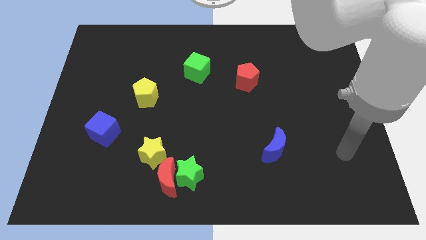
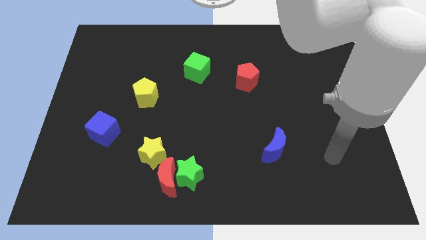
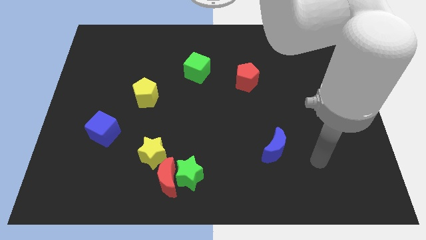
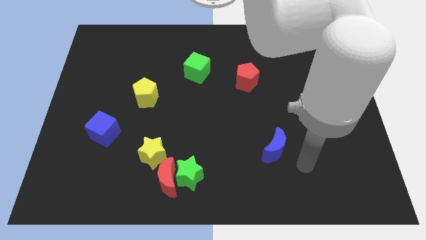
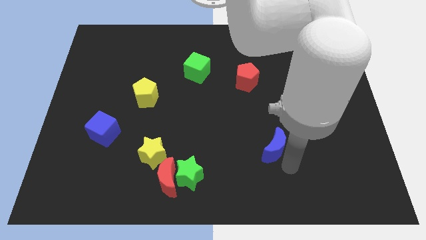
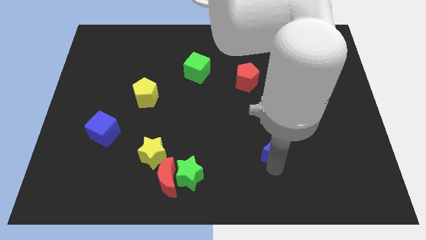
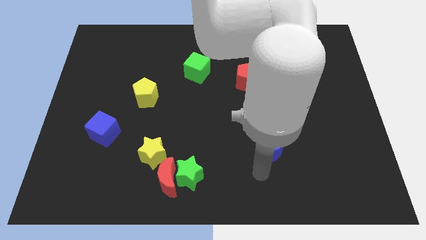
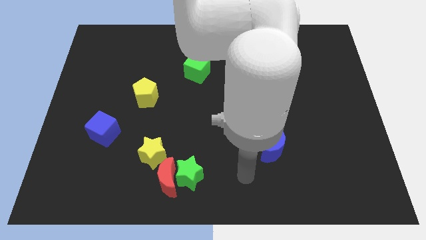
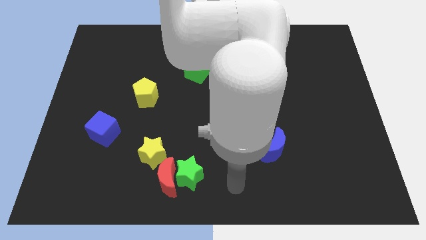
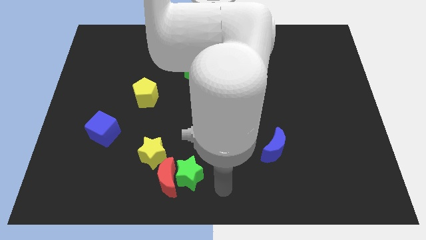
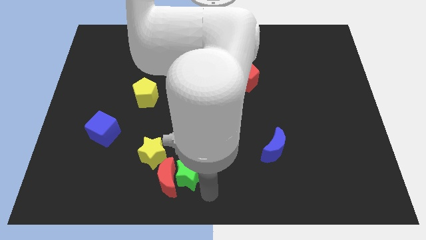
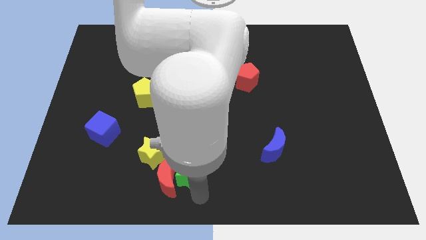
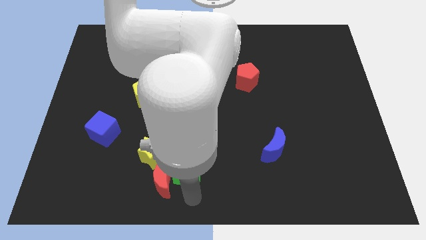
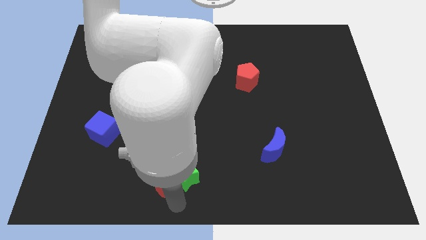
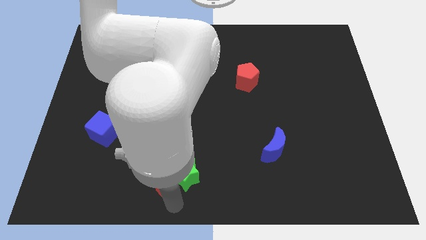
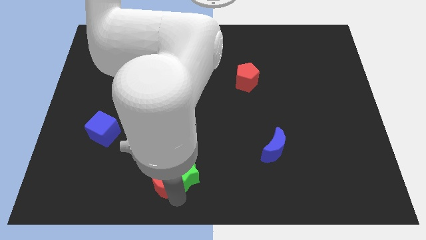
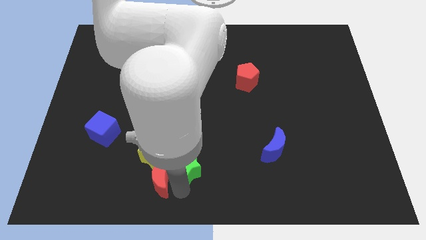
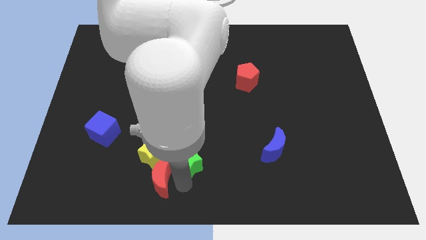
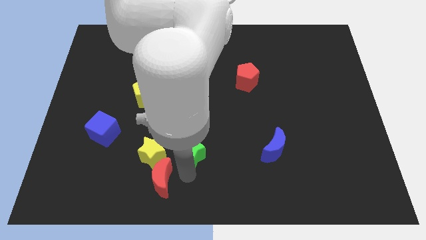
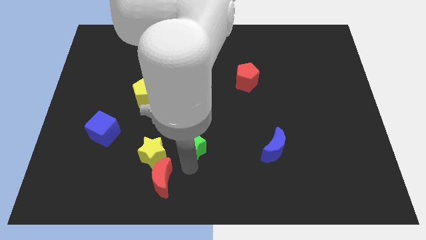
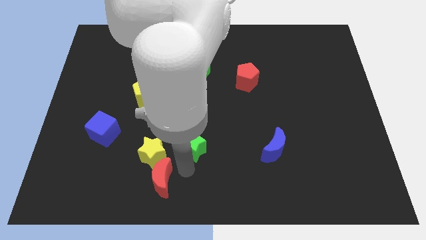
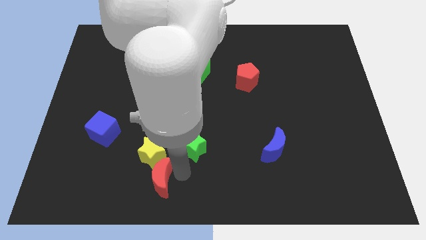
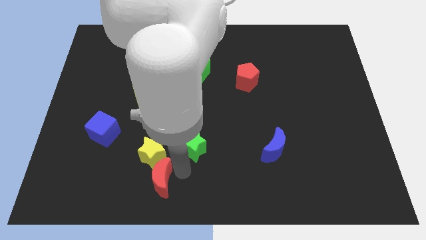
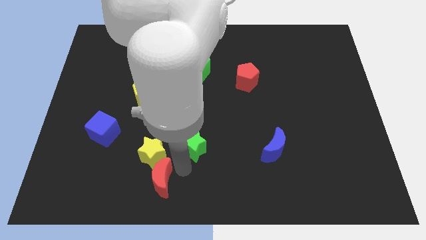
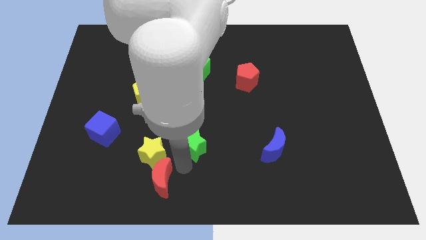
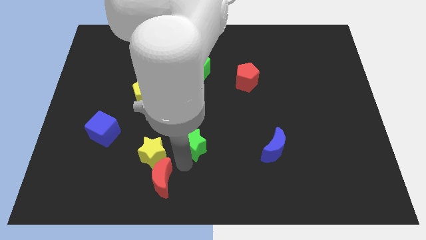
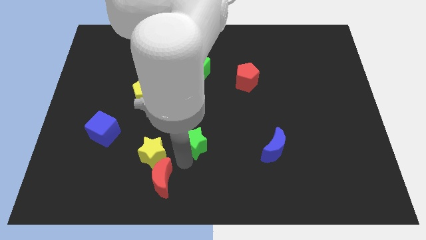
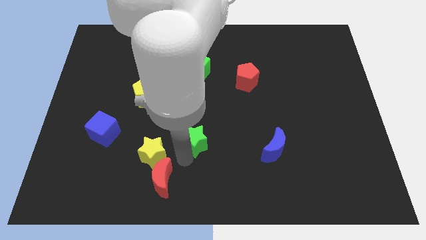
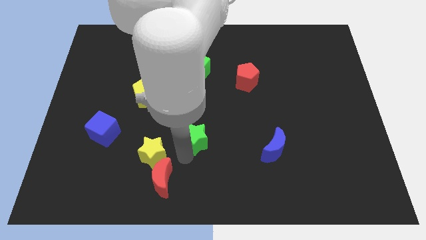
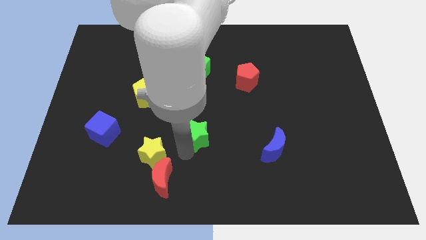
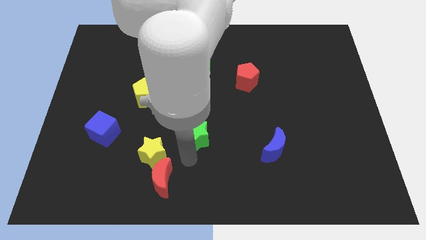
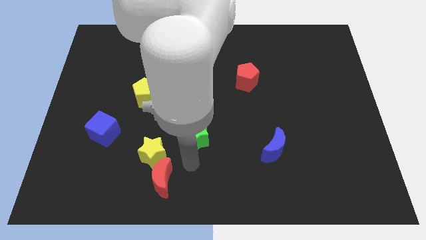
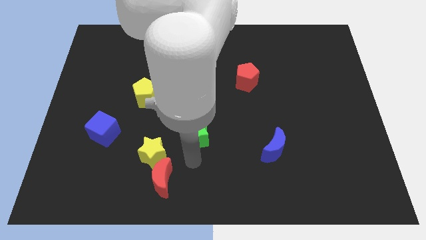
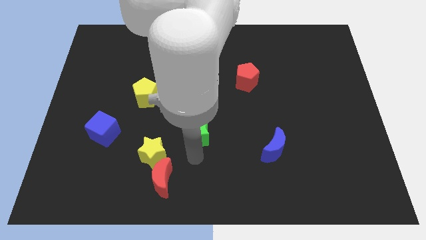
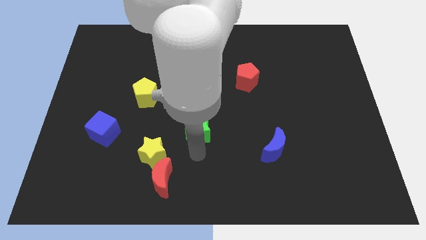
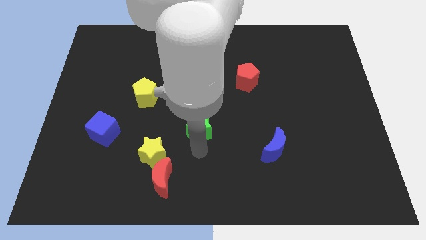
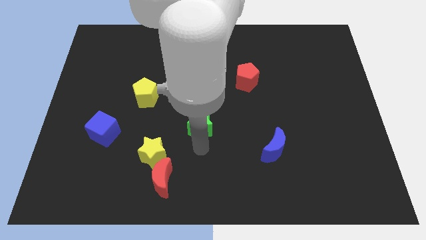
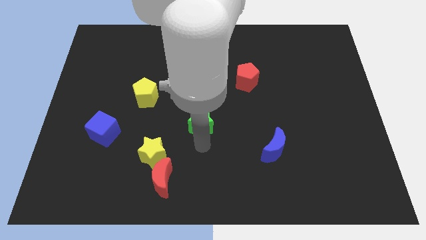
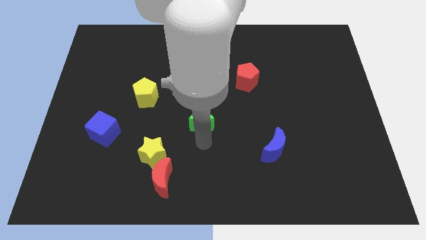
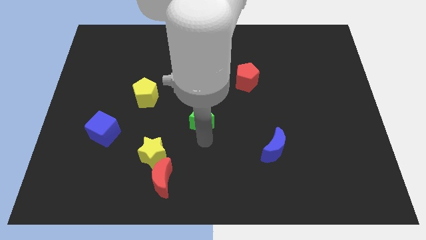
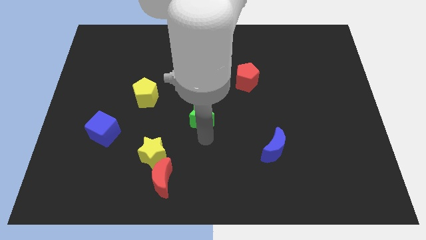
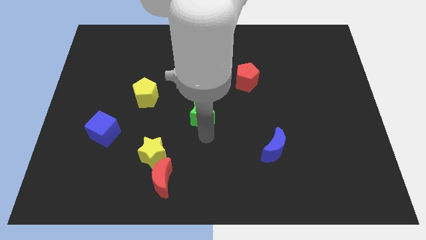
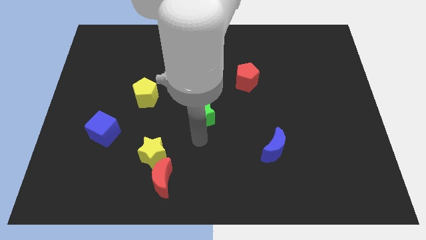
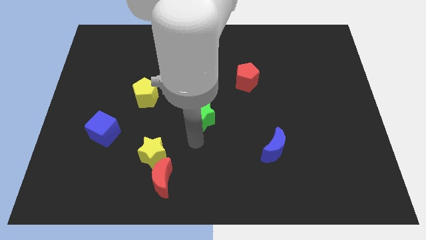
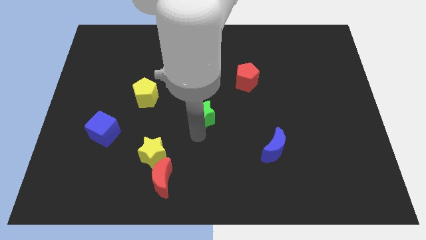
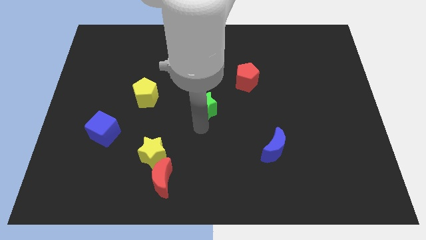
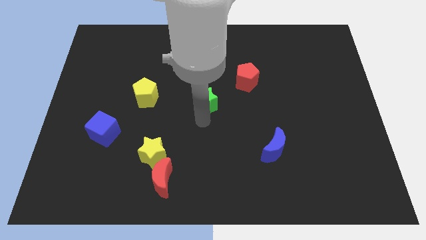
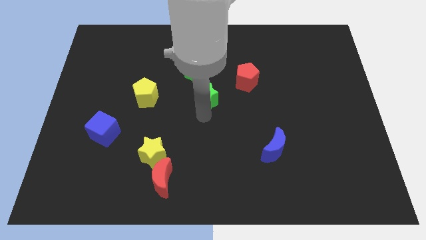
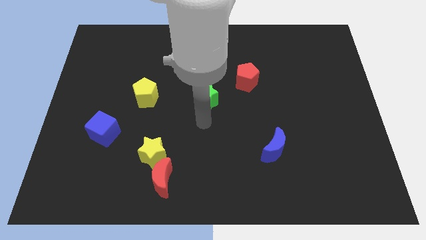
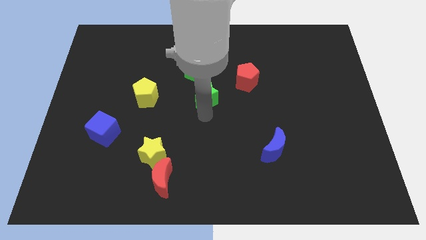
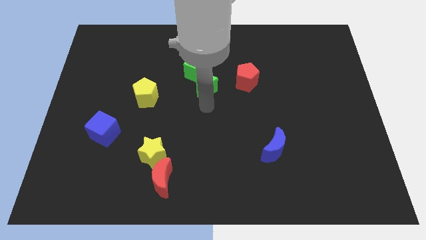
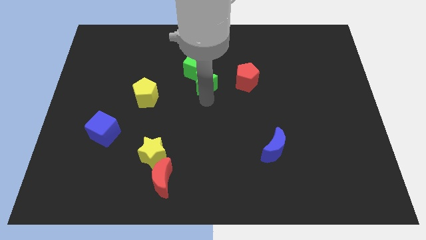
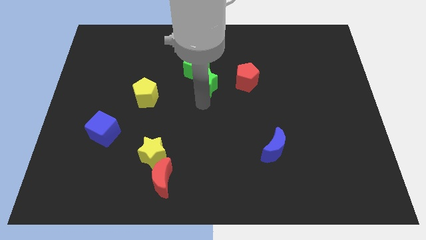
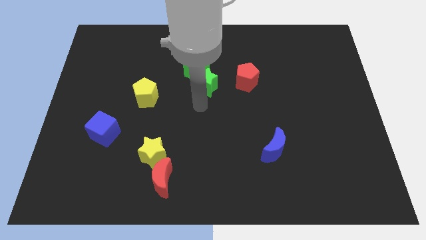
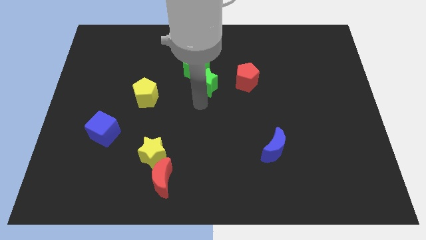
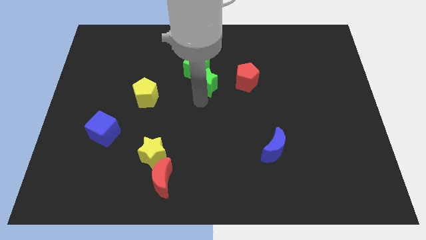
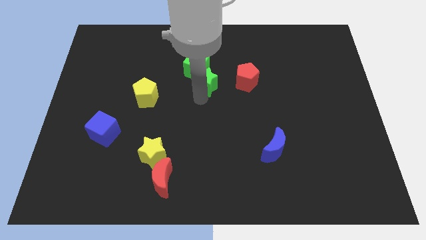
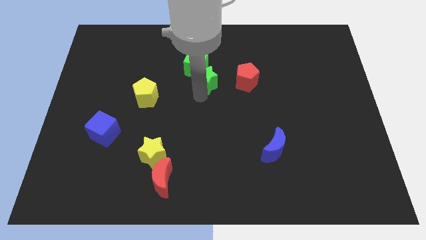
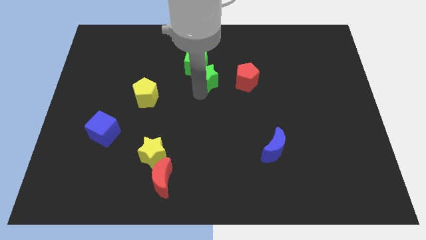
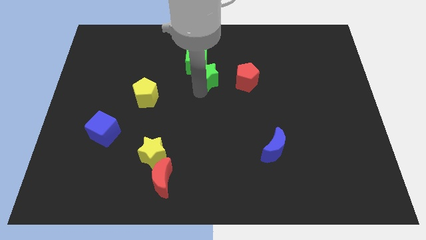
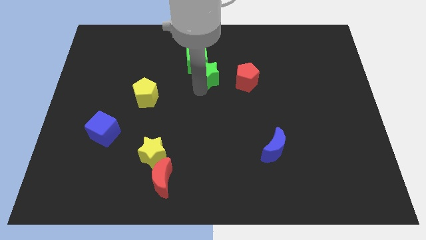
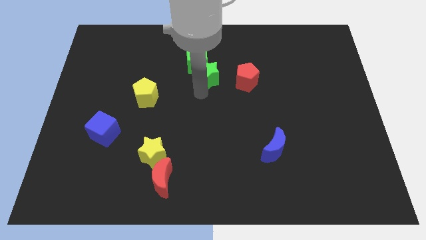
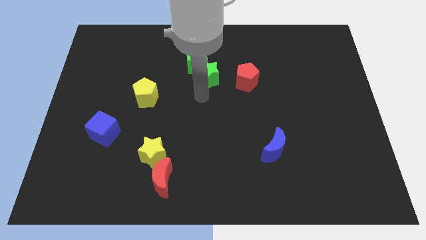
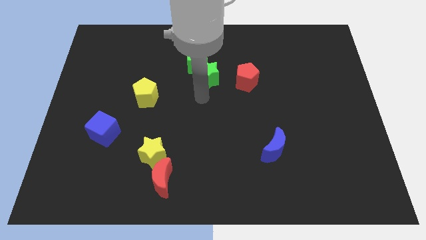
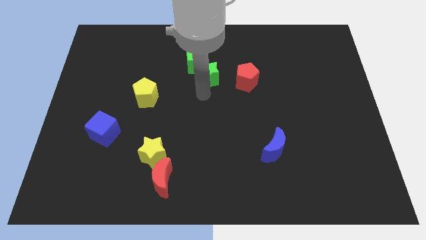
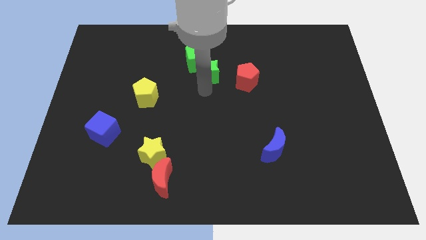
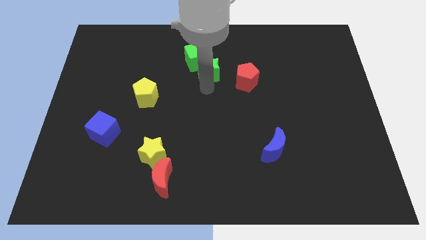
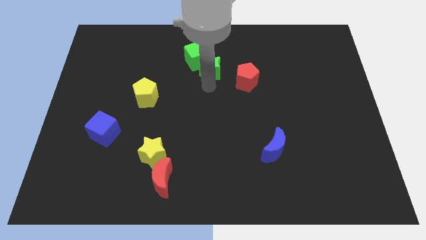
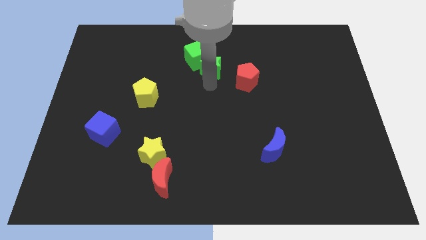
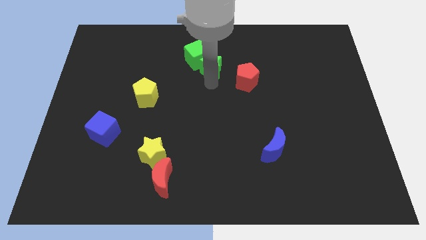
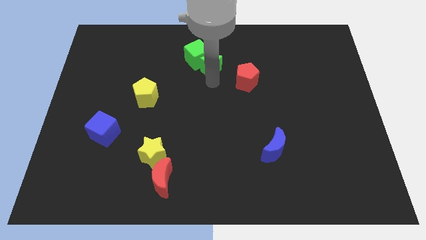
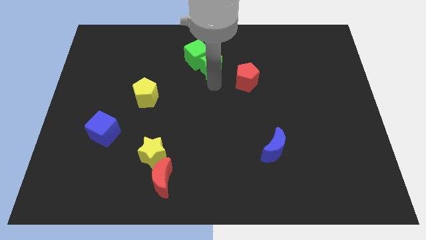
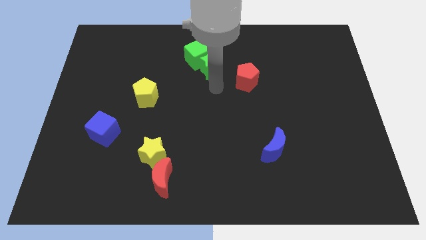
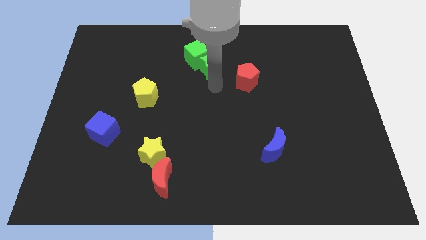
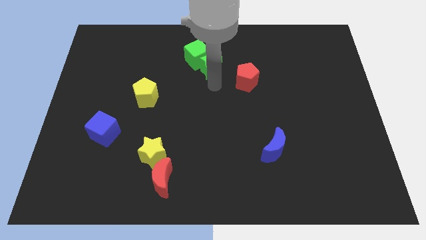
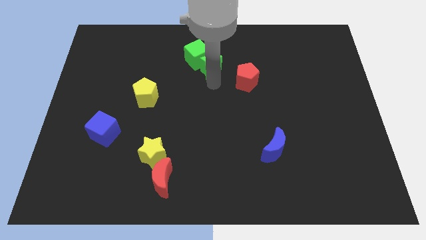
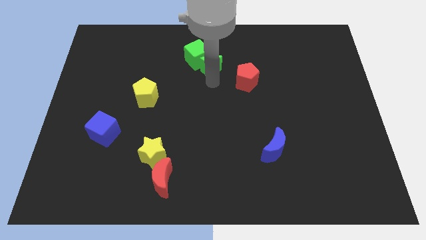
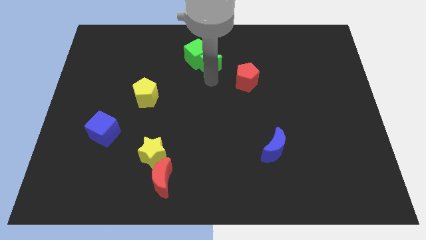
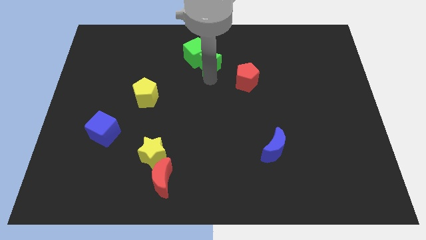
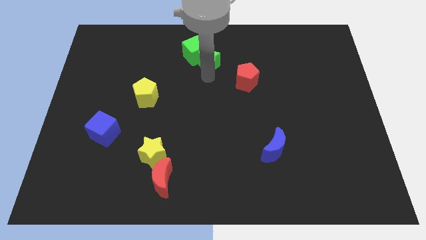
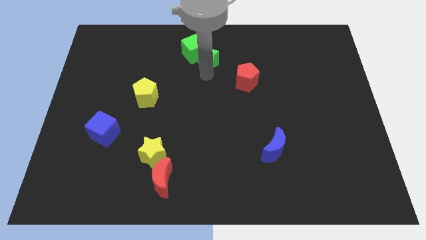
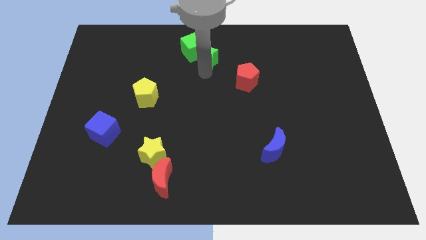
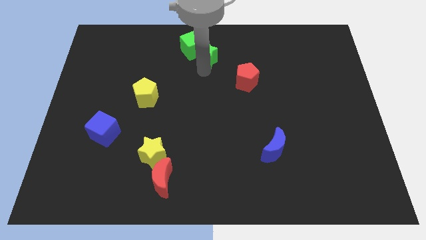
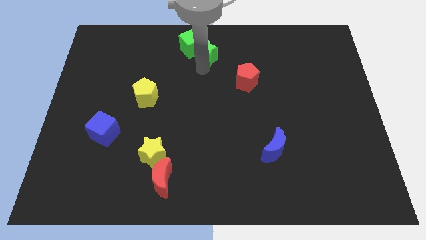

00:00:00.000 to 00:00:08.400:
push the green star to the top side
